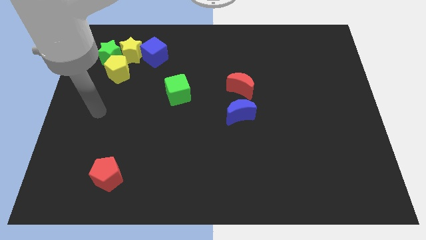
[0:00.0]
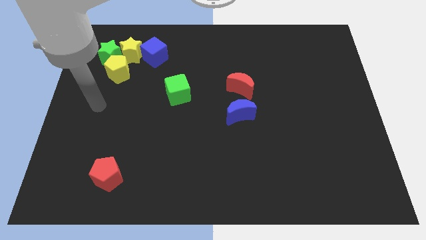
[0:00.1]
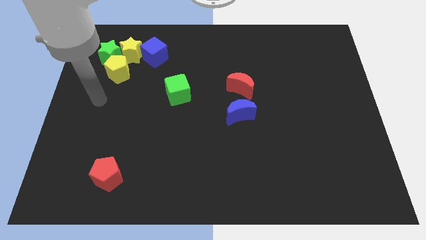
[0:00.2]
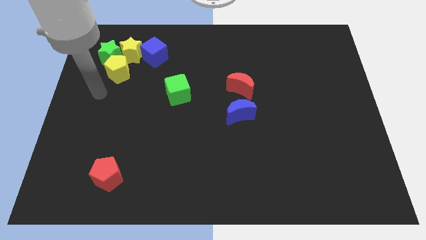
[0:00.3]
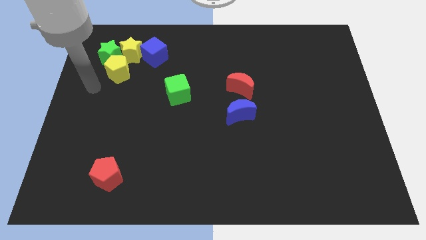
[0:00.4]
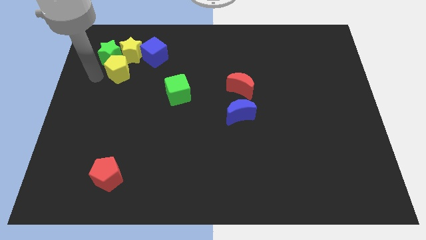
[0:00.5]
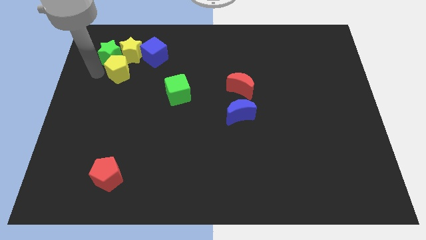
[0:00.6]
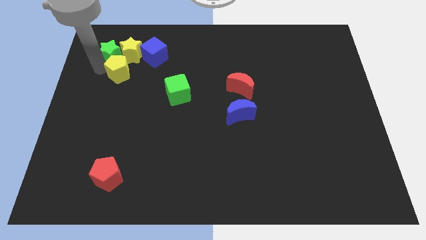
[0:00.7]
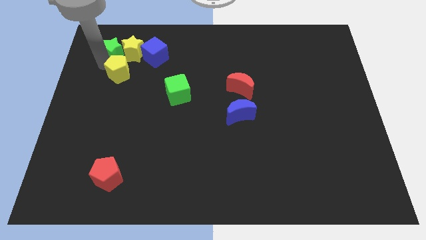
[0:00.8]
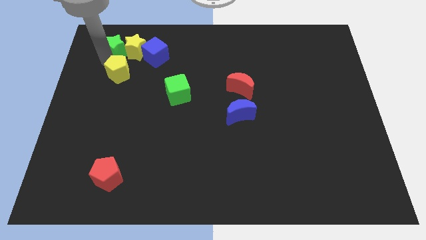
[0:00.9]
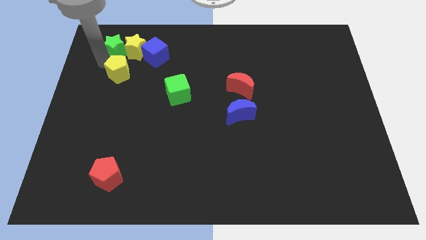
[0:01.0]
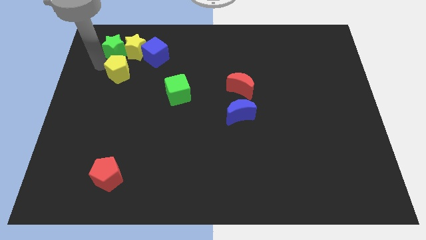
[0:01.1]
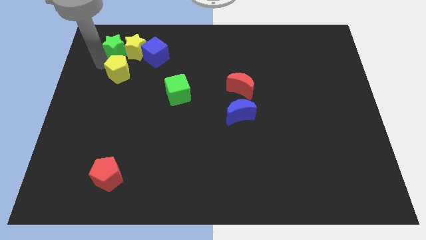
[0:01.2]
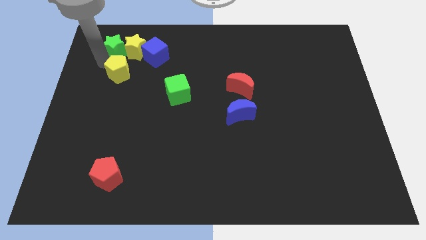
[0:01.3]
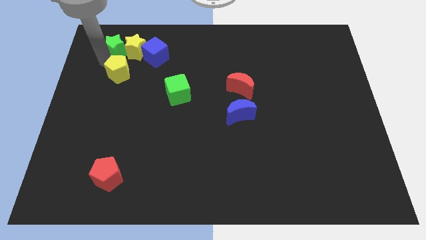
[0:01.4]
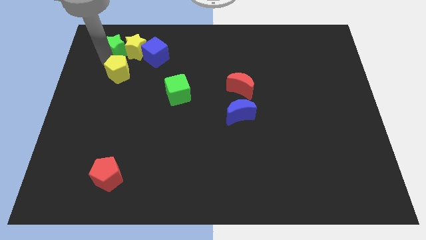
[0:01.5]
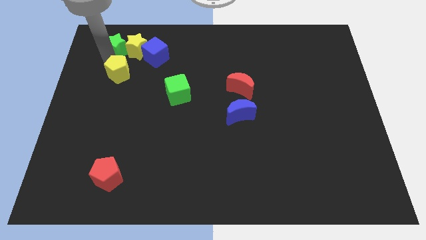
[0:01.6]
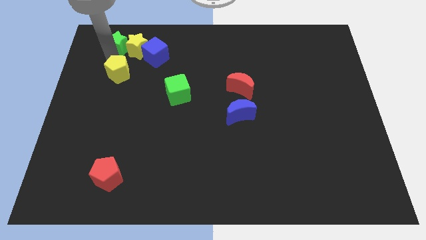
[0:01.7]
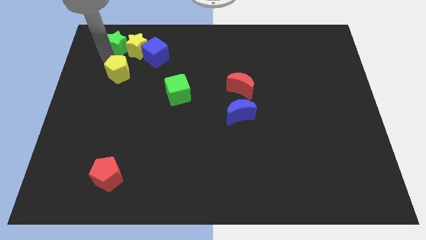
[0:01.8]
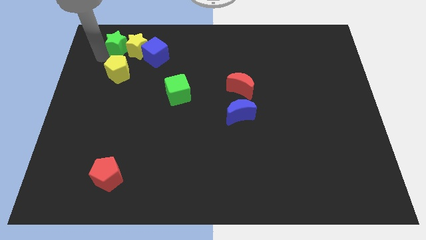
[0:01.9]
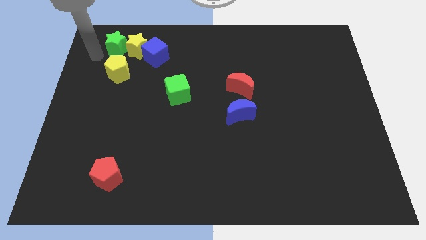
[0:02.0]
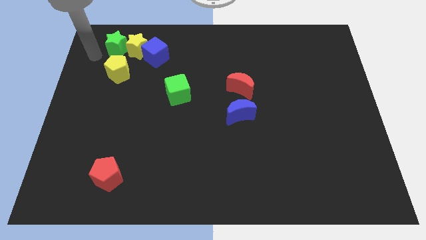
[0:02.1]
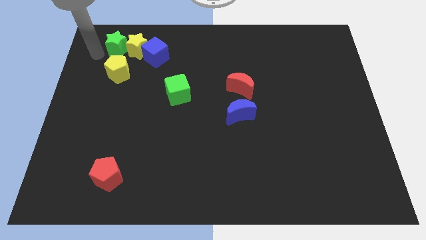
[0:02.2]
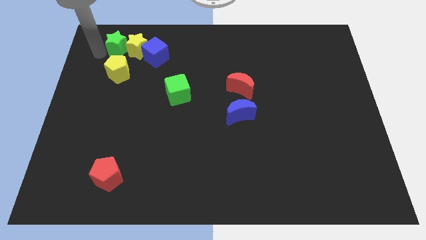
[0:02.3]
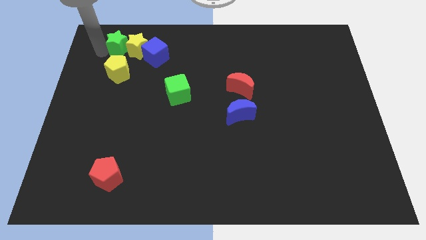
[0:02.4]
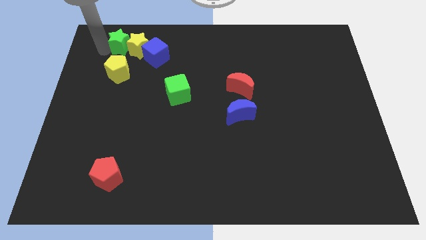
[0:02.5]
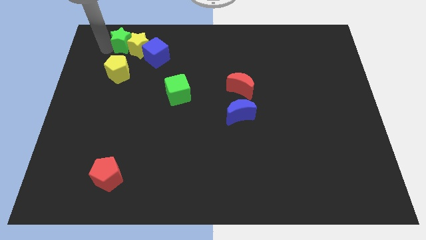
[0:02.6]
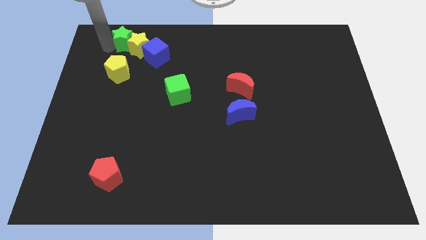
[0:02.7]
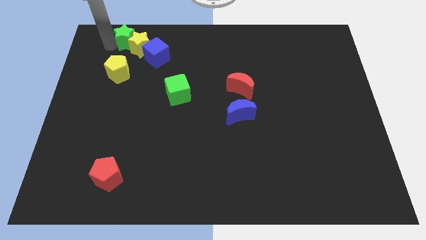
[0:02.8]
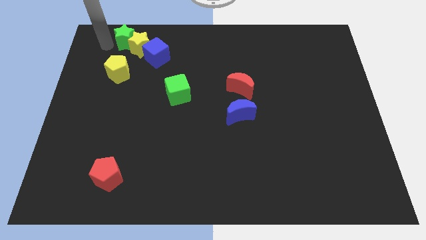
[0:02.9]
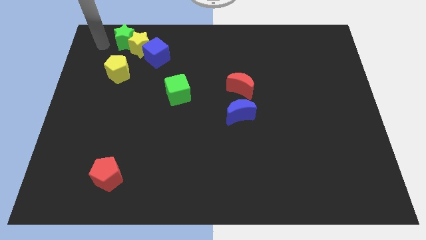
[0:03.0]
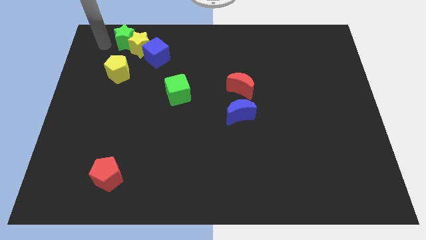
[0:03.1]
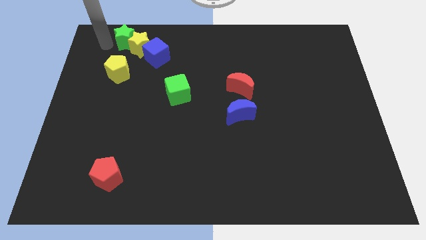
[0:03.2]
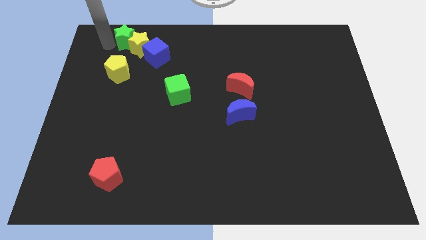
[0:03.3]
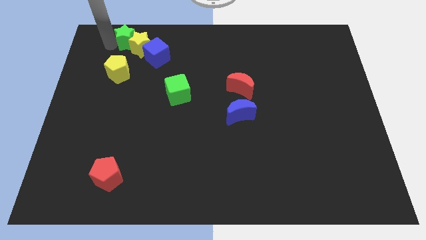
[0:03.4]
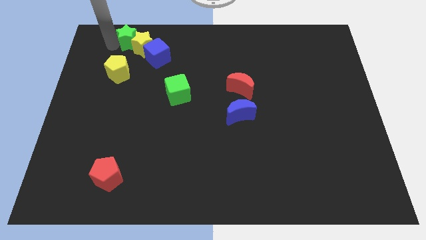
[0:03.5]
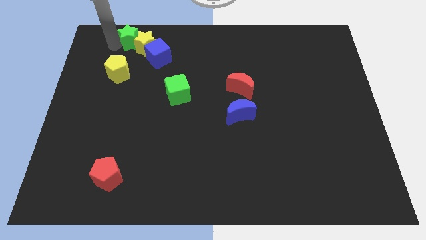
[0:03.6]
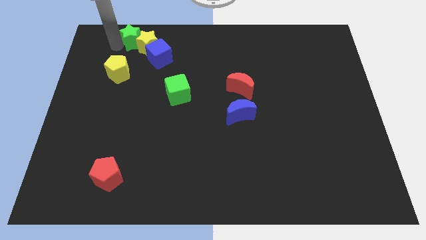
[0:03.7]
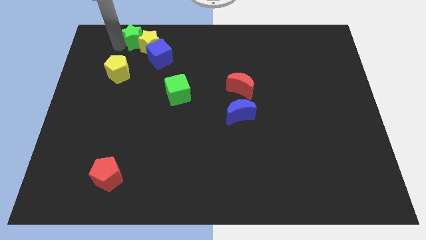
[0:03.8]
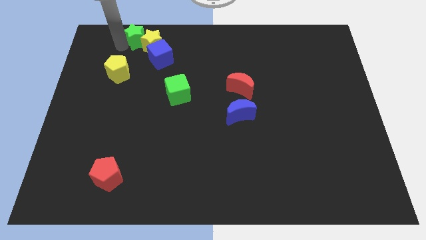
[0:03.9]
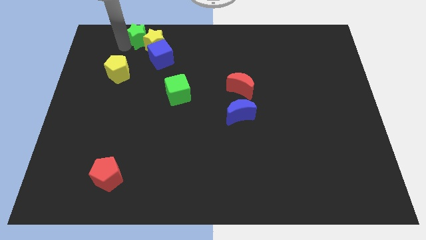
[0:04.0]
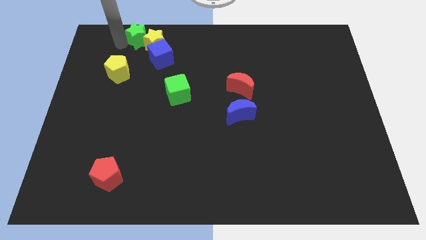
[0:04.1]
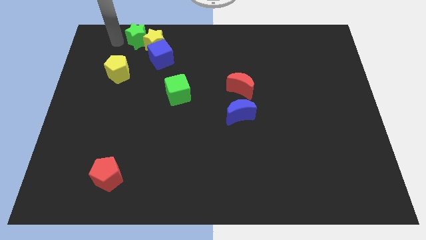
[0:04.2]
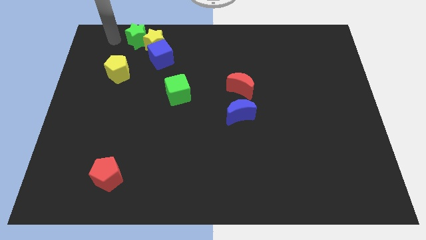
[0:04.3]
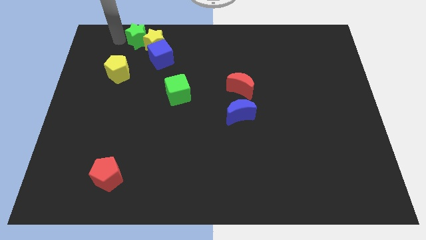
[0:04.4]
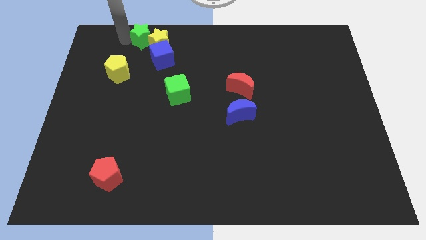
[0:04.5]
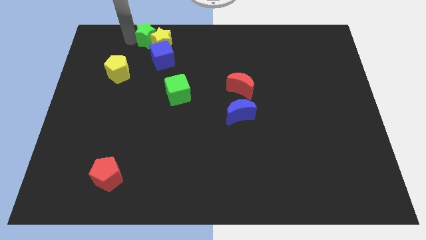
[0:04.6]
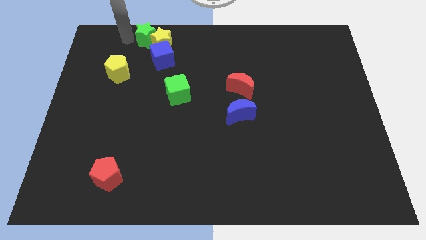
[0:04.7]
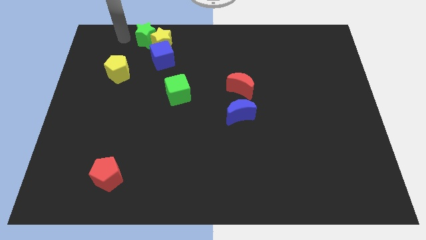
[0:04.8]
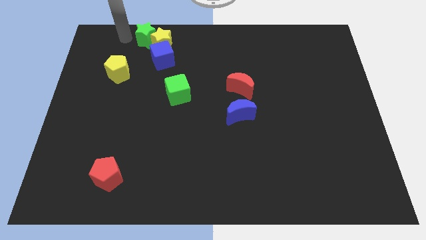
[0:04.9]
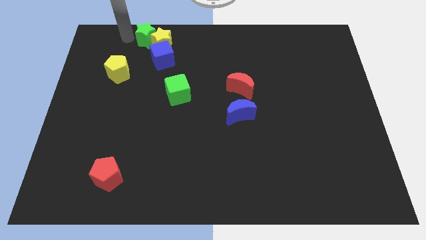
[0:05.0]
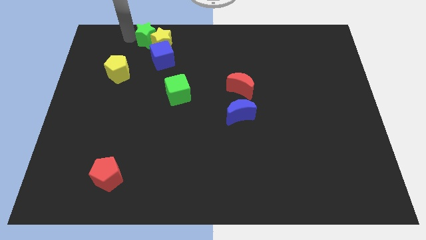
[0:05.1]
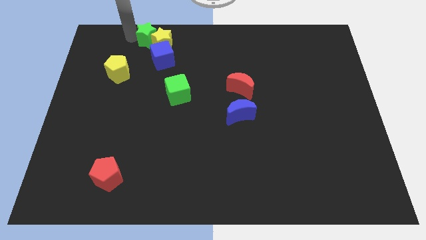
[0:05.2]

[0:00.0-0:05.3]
slightly move the green star to the right

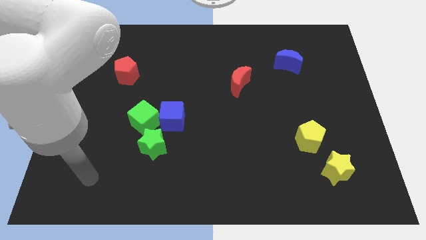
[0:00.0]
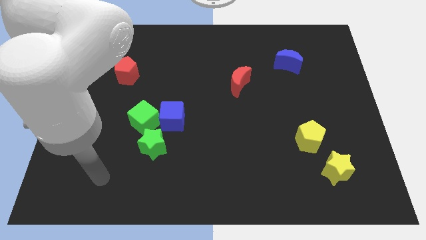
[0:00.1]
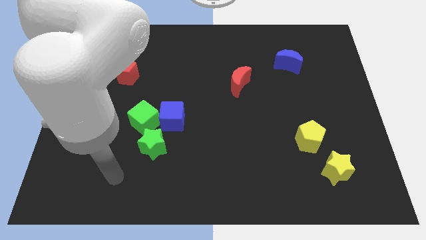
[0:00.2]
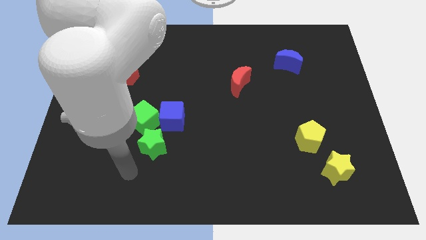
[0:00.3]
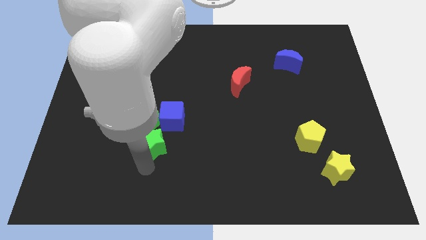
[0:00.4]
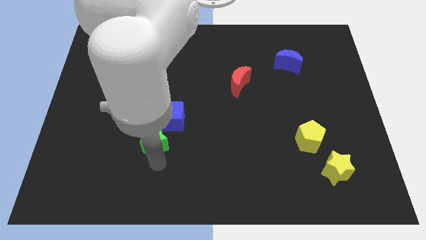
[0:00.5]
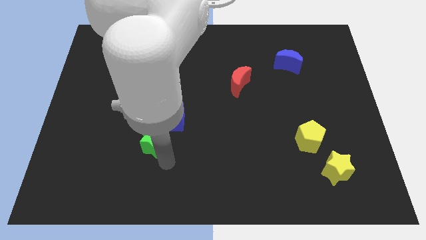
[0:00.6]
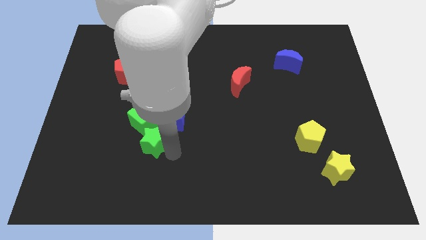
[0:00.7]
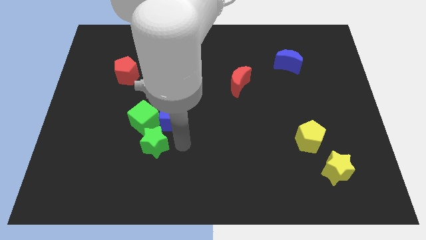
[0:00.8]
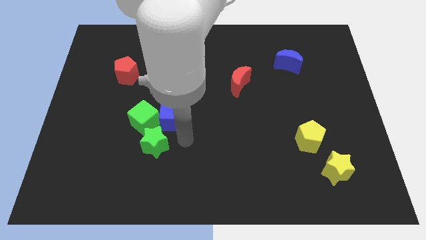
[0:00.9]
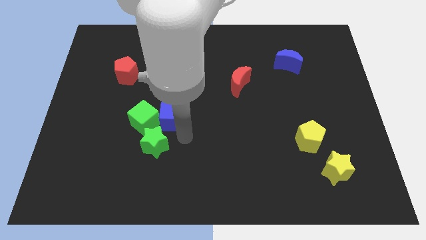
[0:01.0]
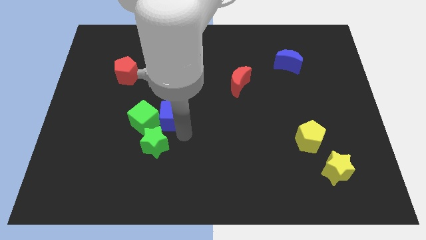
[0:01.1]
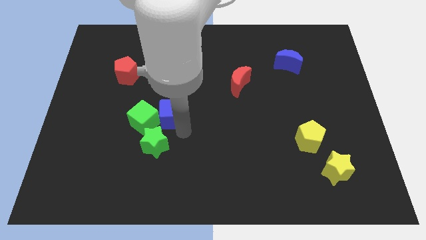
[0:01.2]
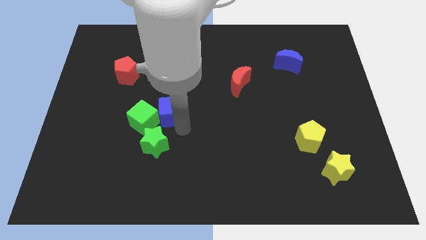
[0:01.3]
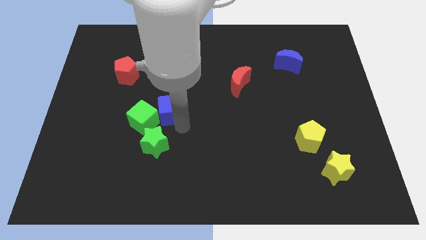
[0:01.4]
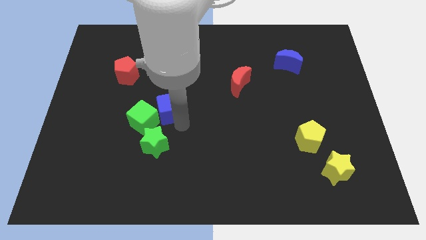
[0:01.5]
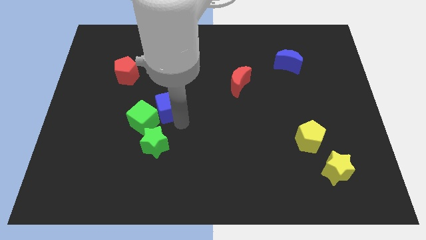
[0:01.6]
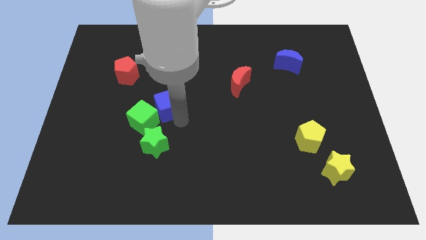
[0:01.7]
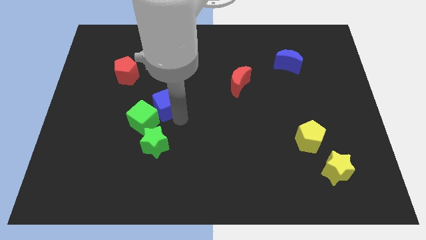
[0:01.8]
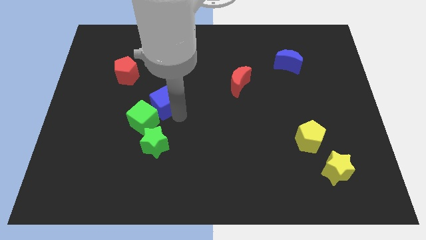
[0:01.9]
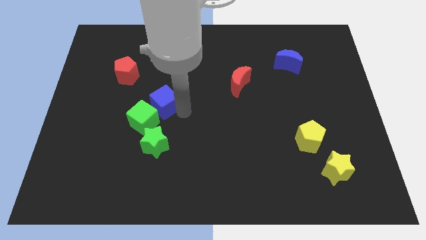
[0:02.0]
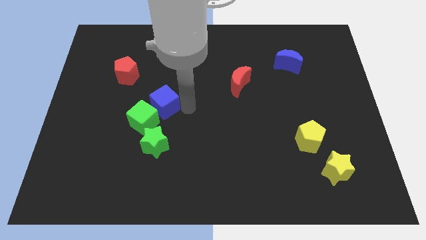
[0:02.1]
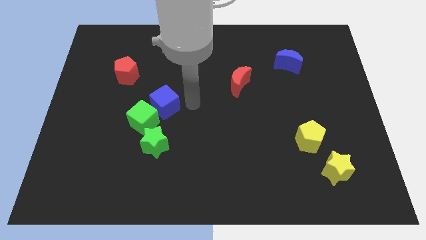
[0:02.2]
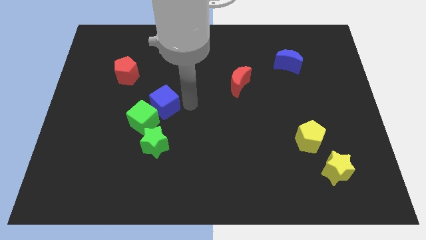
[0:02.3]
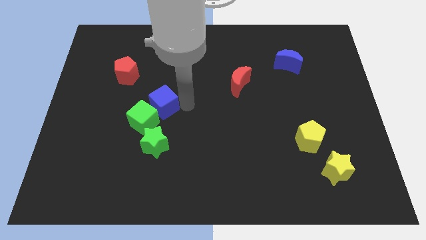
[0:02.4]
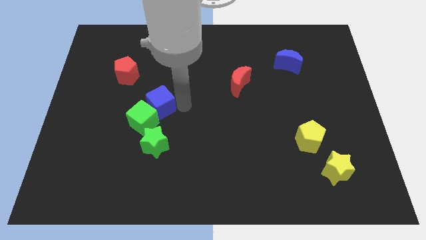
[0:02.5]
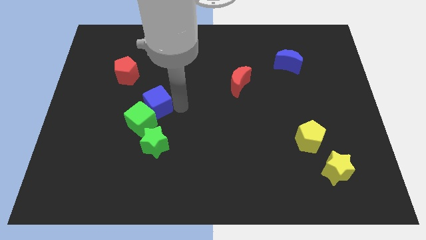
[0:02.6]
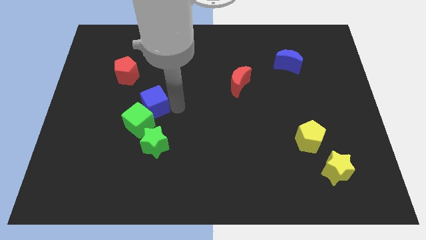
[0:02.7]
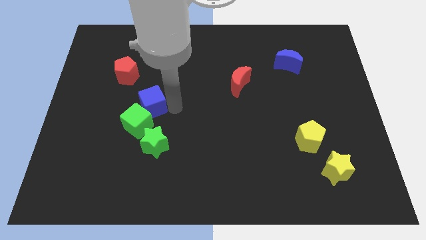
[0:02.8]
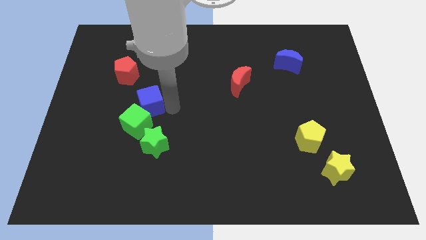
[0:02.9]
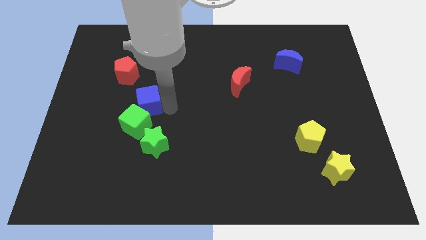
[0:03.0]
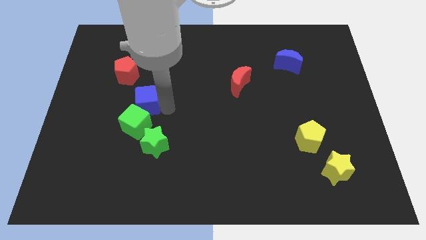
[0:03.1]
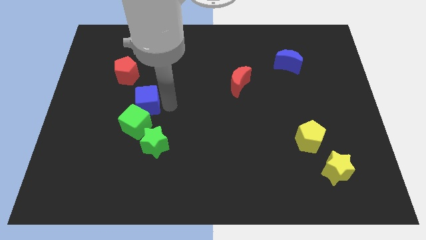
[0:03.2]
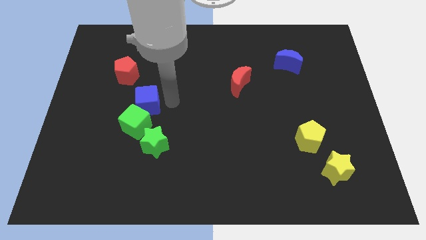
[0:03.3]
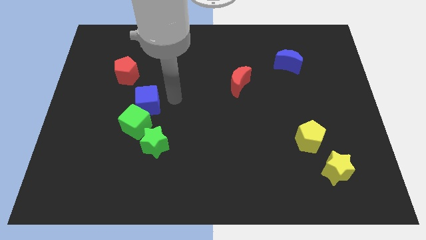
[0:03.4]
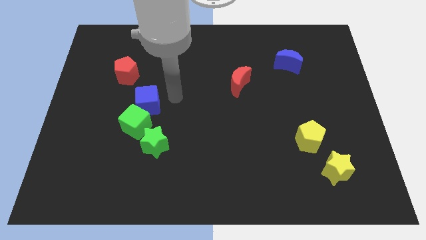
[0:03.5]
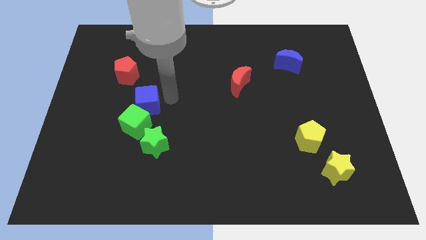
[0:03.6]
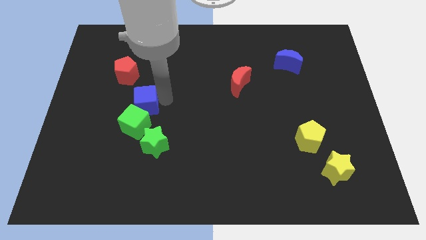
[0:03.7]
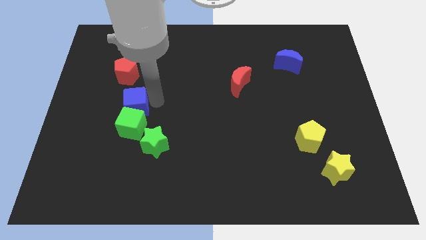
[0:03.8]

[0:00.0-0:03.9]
slightly move the blue cube to the left
